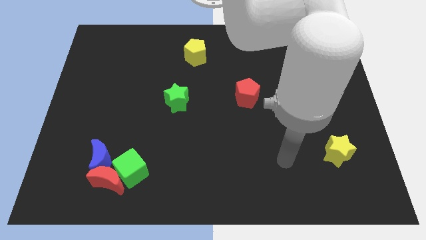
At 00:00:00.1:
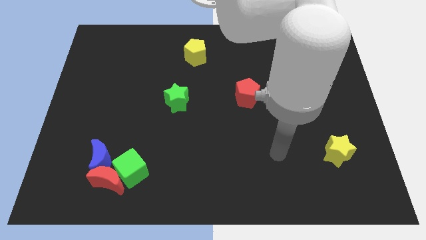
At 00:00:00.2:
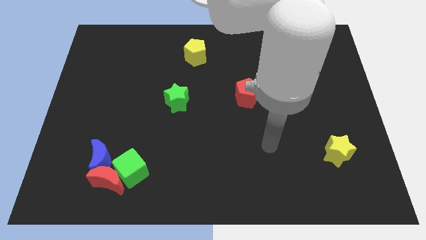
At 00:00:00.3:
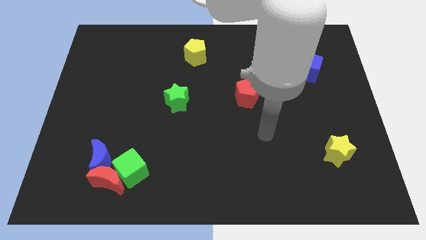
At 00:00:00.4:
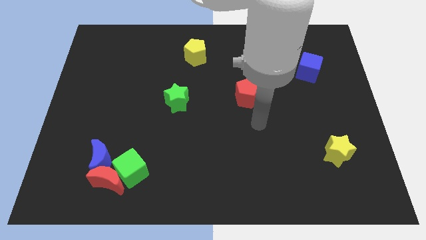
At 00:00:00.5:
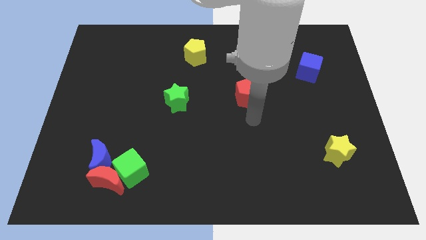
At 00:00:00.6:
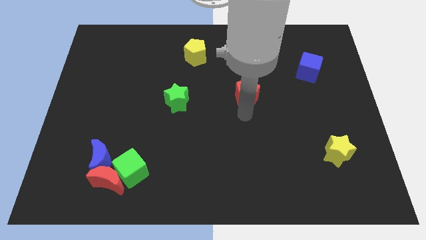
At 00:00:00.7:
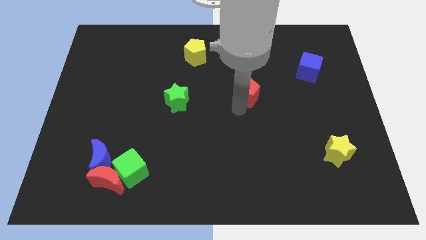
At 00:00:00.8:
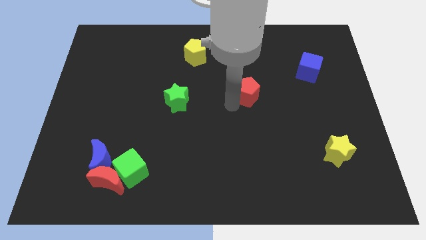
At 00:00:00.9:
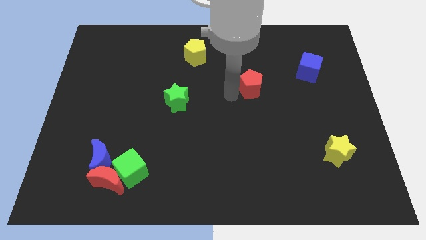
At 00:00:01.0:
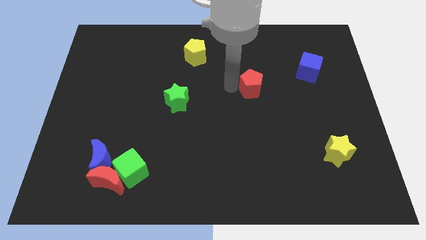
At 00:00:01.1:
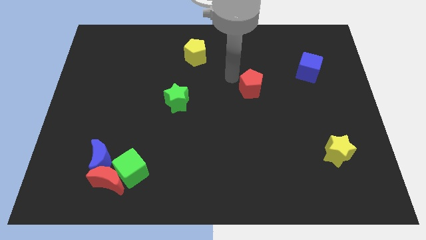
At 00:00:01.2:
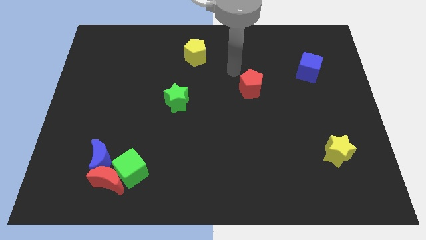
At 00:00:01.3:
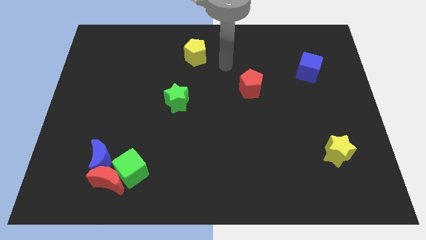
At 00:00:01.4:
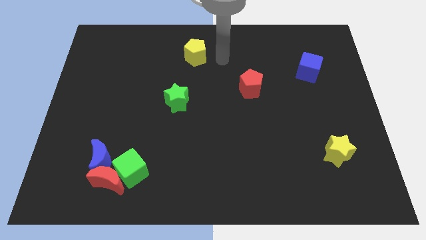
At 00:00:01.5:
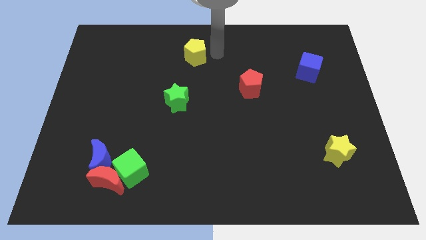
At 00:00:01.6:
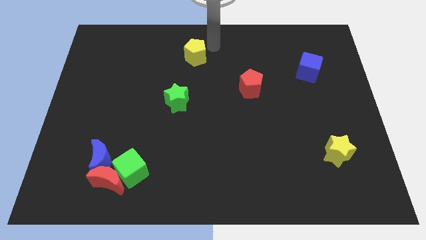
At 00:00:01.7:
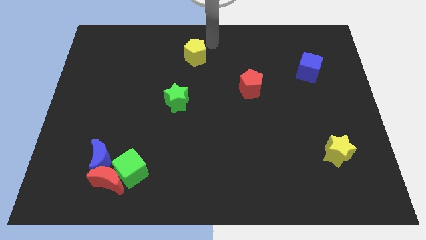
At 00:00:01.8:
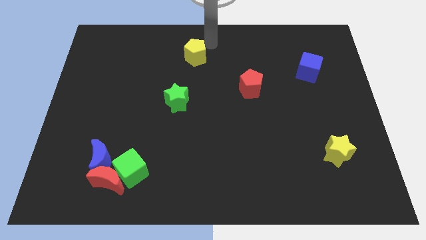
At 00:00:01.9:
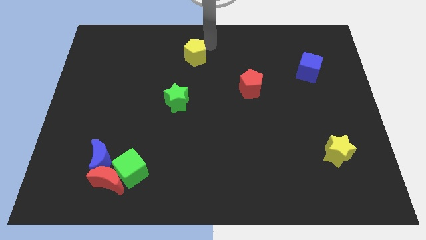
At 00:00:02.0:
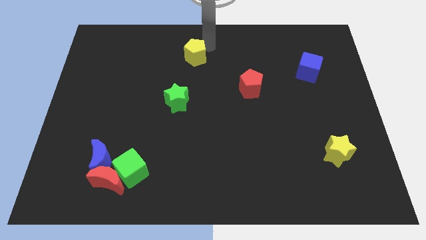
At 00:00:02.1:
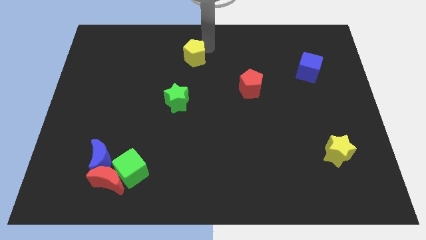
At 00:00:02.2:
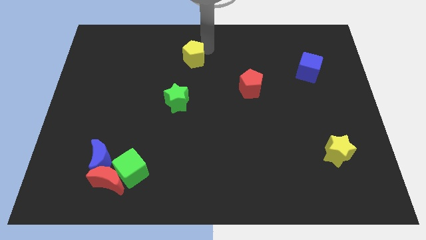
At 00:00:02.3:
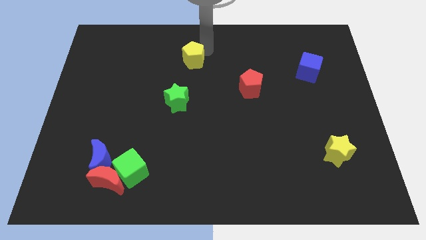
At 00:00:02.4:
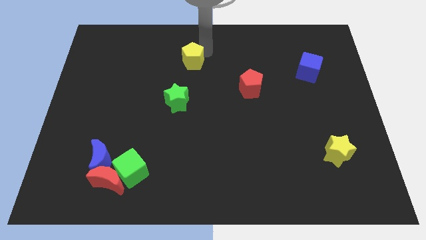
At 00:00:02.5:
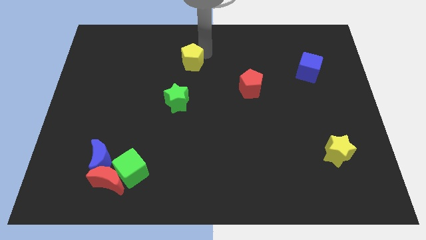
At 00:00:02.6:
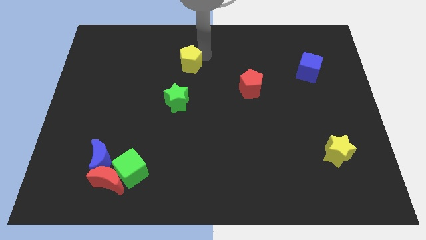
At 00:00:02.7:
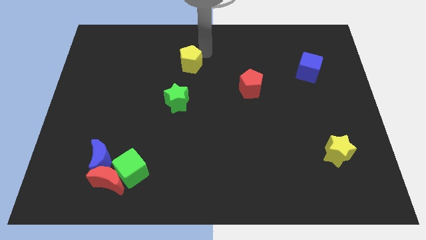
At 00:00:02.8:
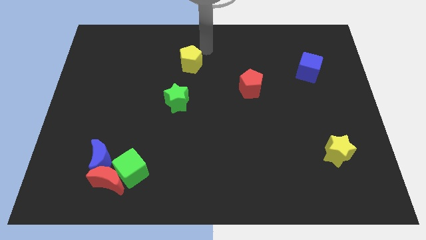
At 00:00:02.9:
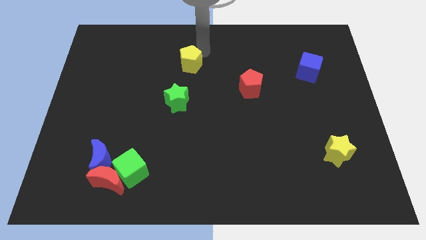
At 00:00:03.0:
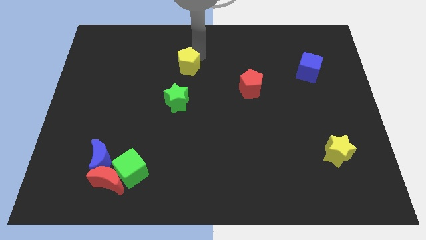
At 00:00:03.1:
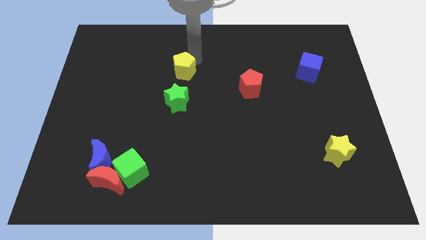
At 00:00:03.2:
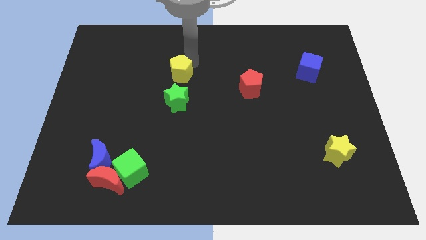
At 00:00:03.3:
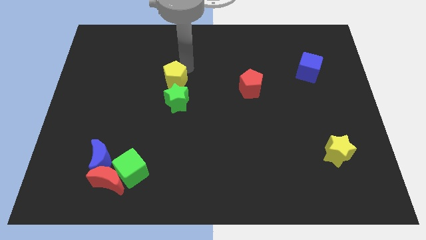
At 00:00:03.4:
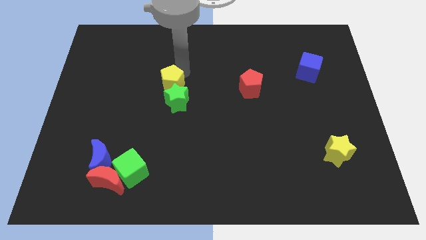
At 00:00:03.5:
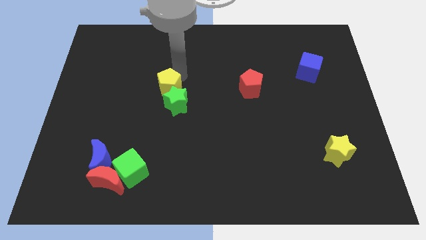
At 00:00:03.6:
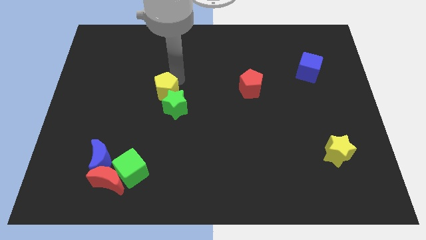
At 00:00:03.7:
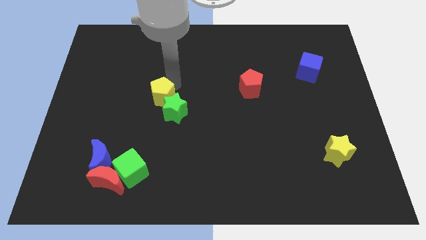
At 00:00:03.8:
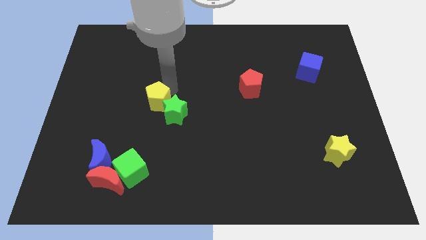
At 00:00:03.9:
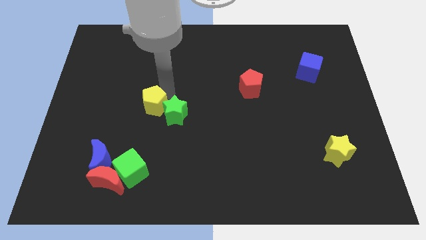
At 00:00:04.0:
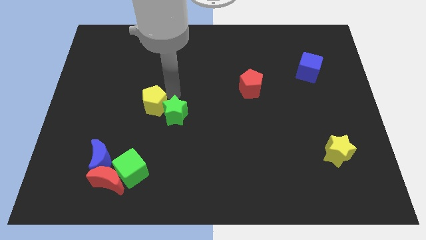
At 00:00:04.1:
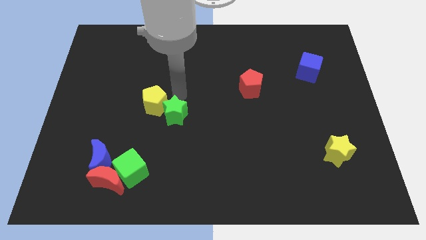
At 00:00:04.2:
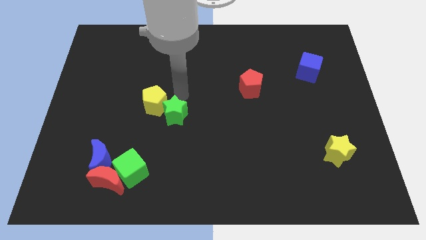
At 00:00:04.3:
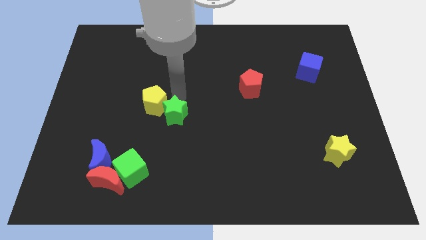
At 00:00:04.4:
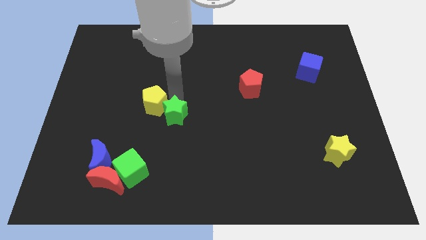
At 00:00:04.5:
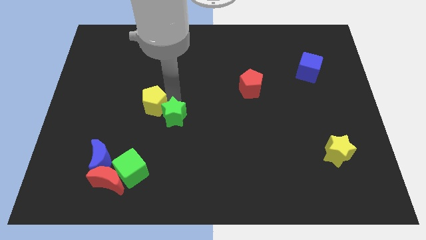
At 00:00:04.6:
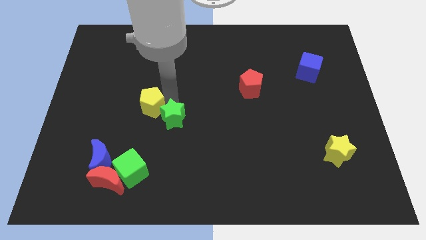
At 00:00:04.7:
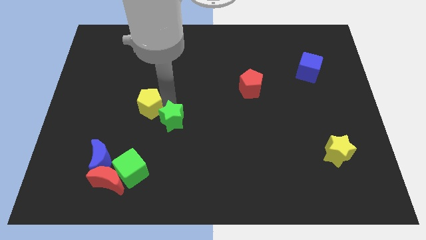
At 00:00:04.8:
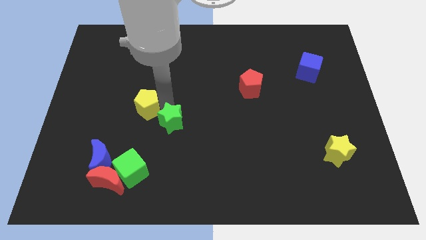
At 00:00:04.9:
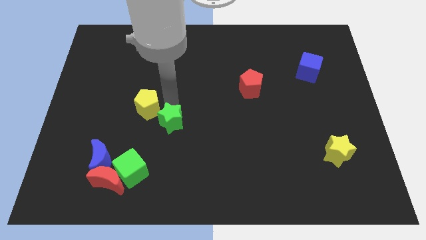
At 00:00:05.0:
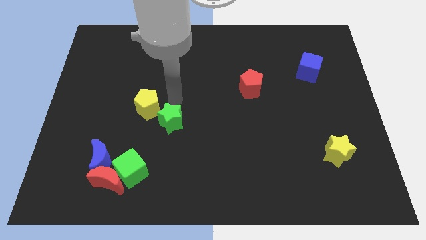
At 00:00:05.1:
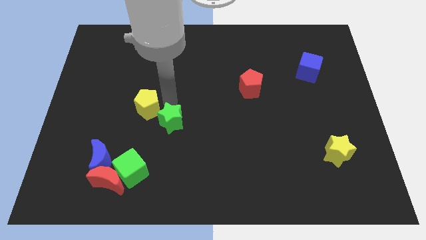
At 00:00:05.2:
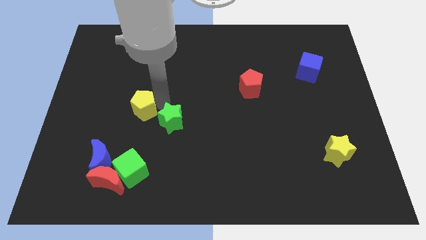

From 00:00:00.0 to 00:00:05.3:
slide the yellow pentagon downwards and to the left diagonally

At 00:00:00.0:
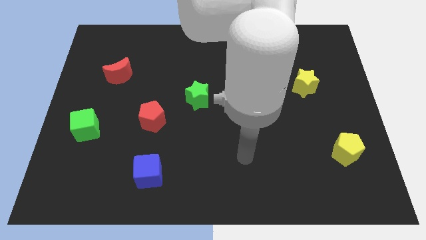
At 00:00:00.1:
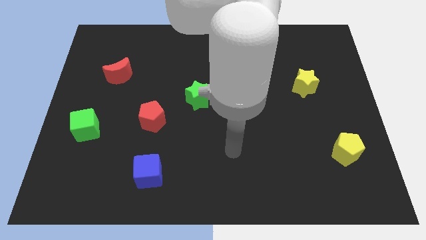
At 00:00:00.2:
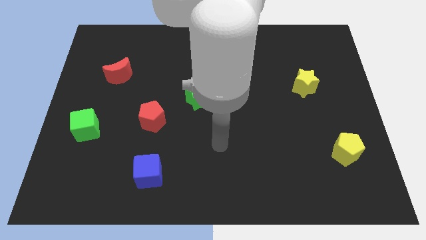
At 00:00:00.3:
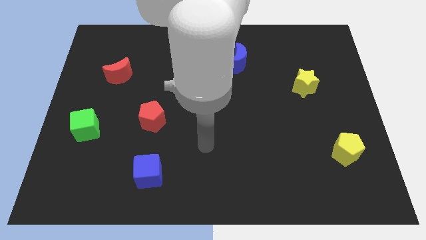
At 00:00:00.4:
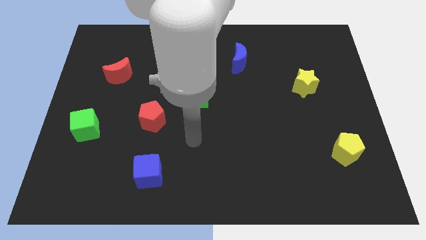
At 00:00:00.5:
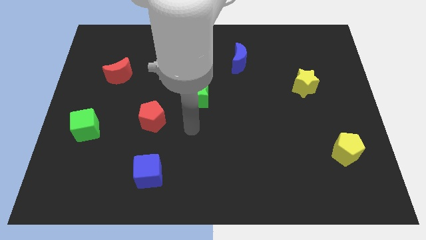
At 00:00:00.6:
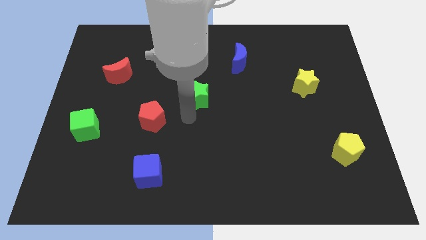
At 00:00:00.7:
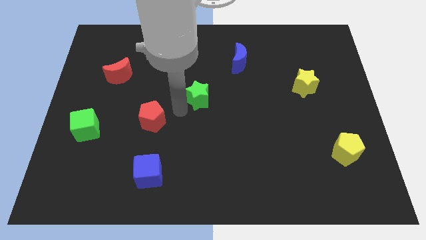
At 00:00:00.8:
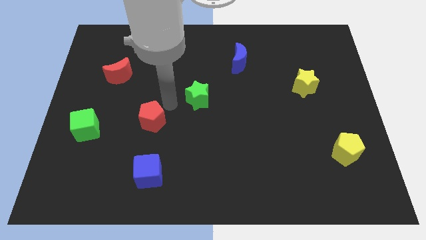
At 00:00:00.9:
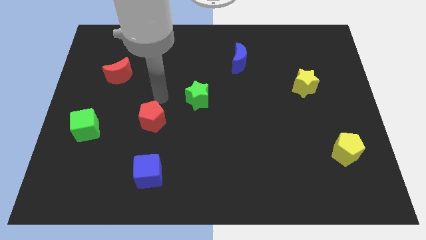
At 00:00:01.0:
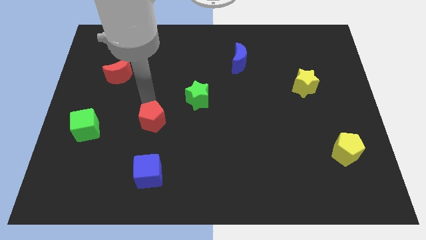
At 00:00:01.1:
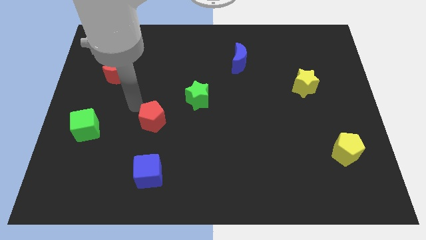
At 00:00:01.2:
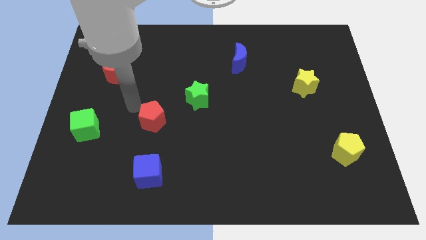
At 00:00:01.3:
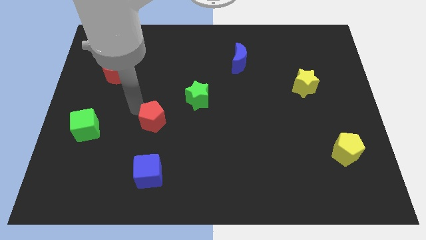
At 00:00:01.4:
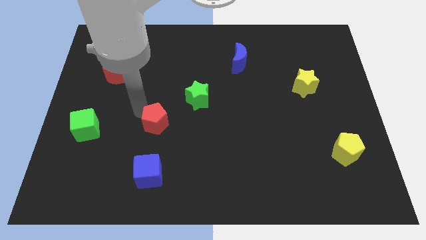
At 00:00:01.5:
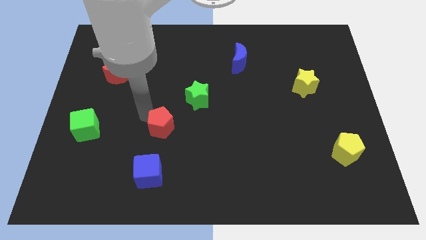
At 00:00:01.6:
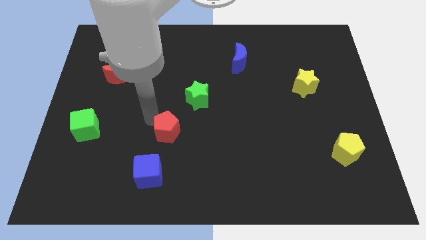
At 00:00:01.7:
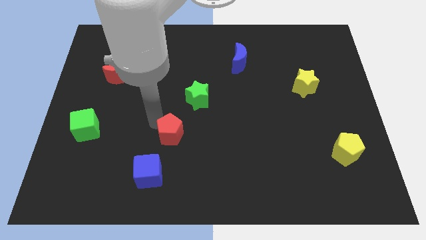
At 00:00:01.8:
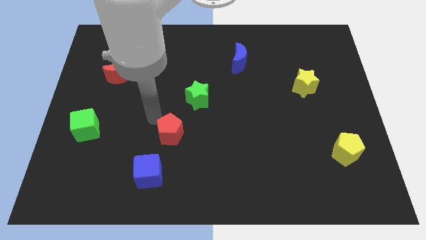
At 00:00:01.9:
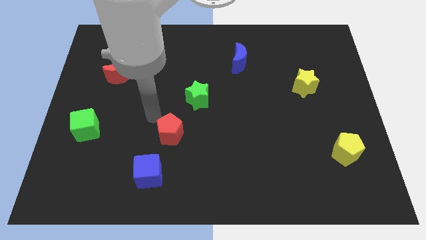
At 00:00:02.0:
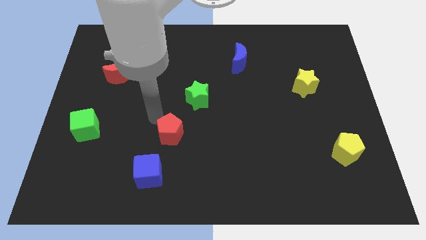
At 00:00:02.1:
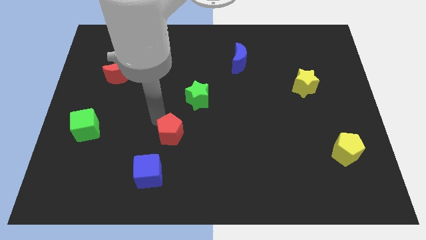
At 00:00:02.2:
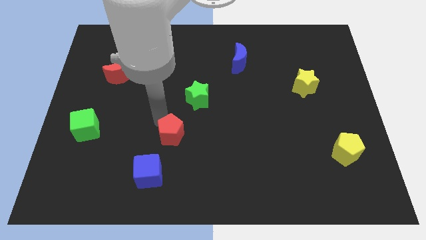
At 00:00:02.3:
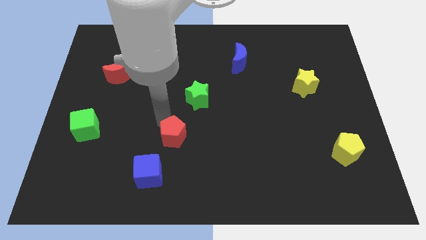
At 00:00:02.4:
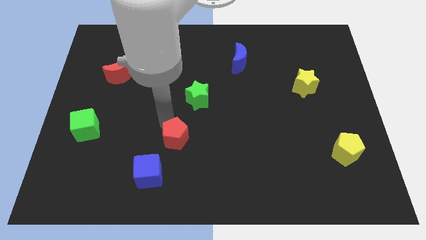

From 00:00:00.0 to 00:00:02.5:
slide the red pentagon down and right somewhat
